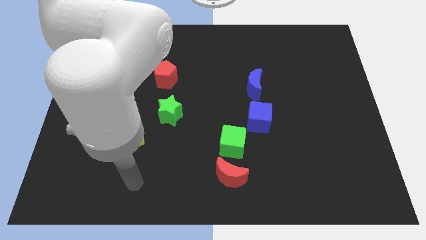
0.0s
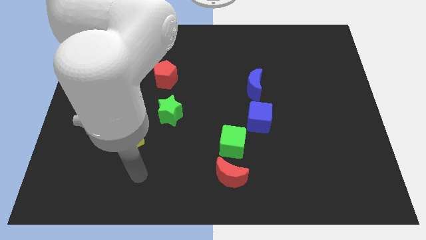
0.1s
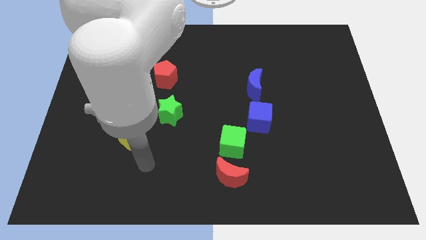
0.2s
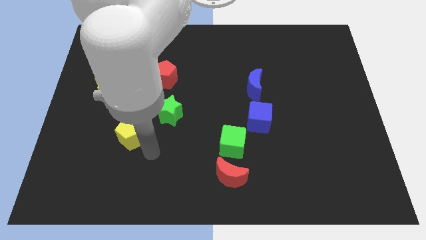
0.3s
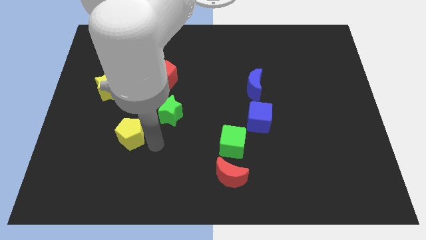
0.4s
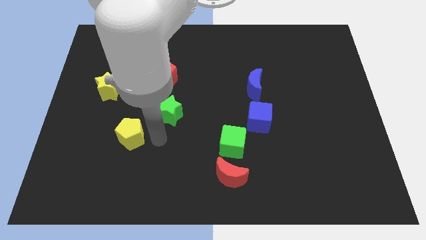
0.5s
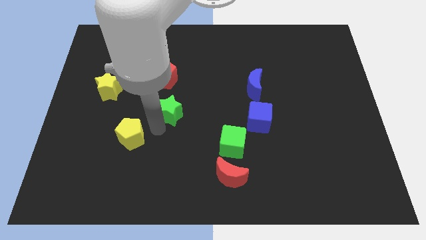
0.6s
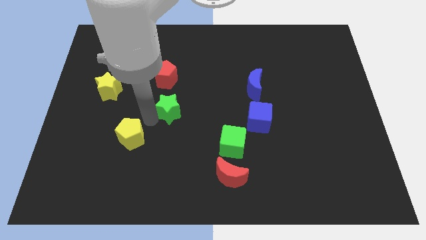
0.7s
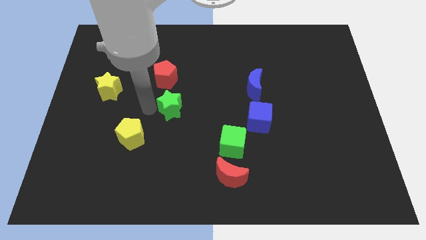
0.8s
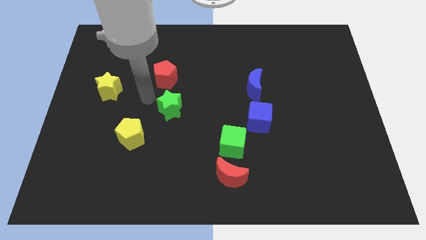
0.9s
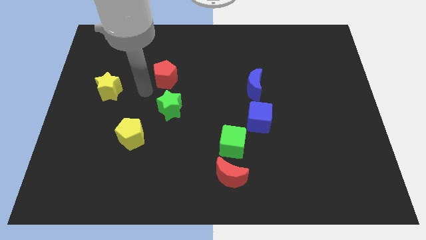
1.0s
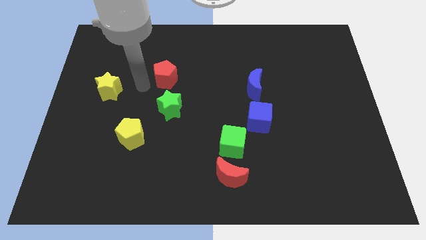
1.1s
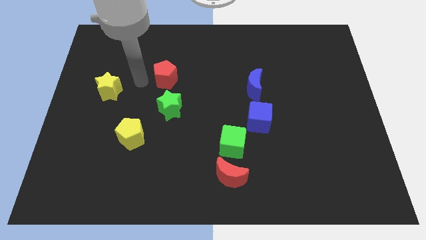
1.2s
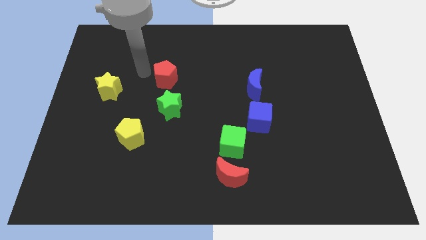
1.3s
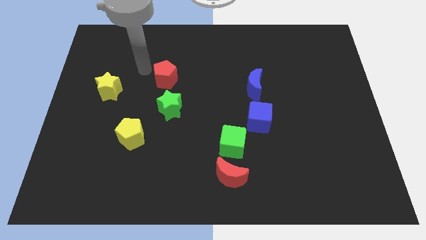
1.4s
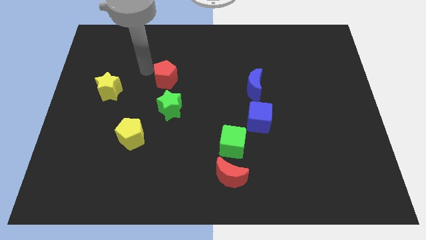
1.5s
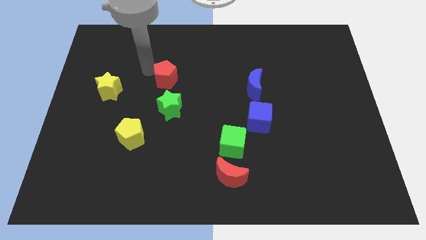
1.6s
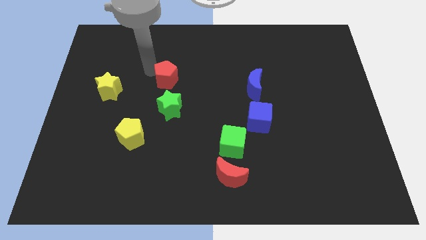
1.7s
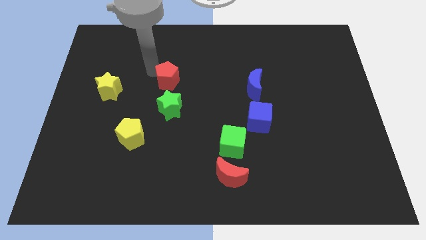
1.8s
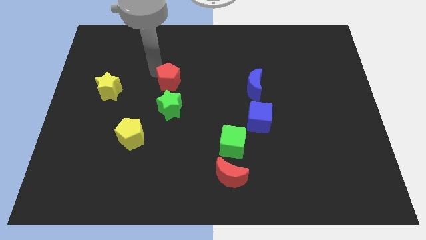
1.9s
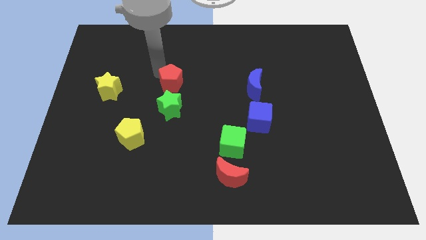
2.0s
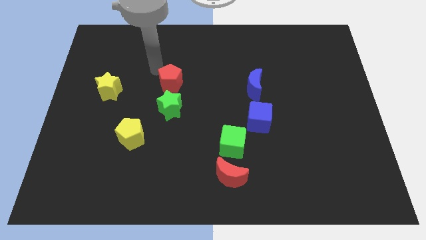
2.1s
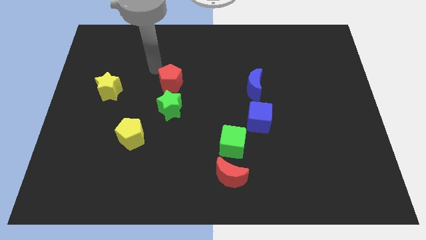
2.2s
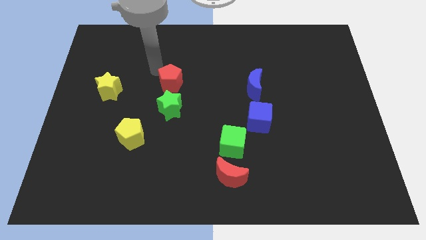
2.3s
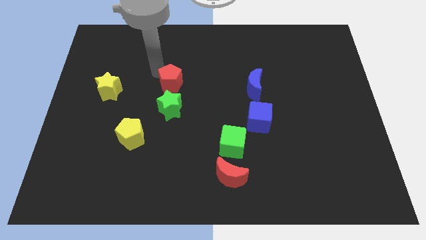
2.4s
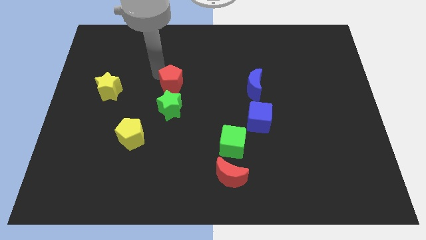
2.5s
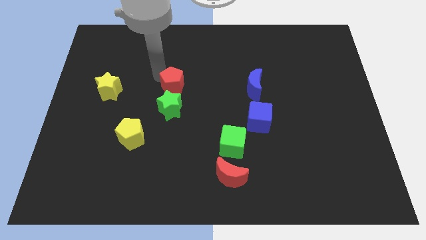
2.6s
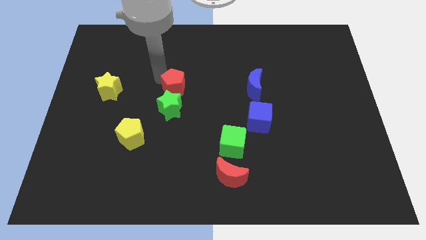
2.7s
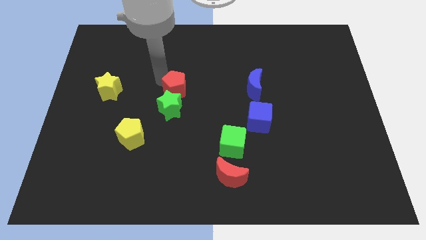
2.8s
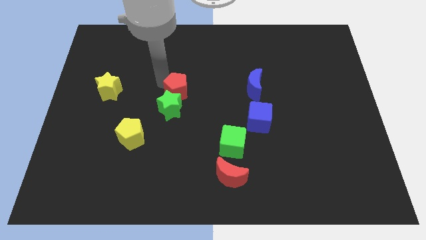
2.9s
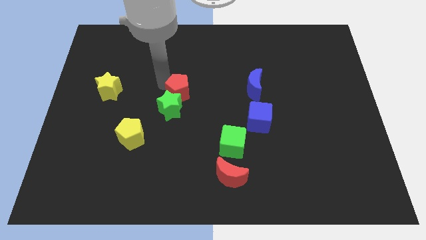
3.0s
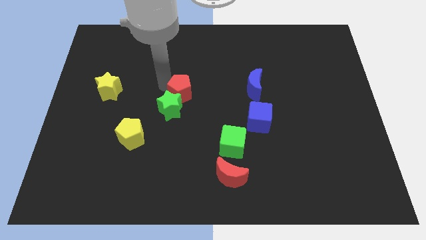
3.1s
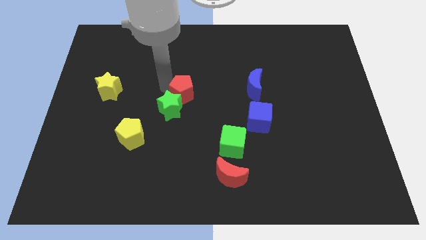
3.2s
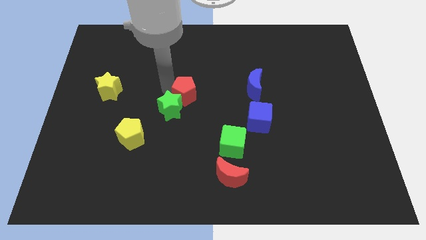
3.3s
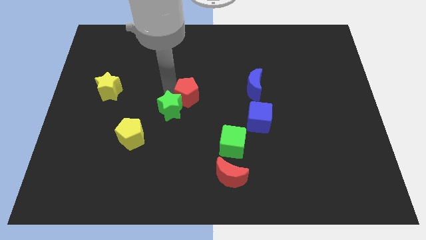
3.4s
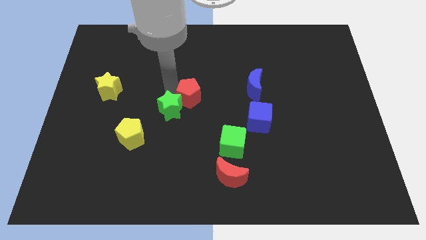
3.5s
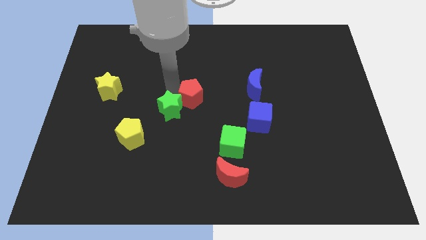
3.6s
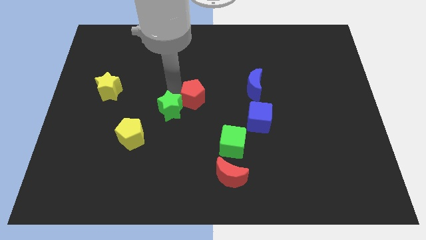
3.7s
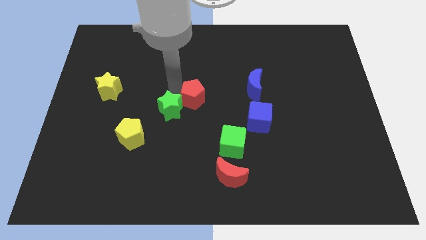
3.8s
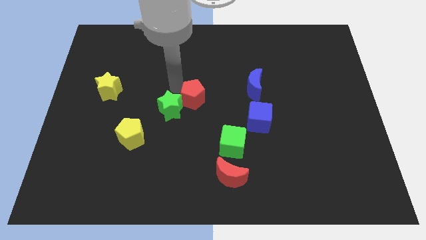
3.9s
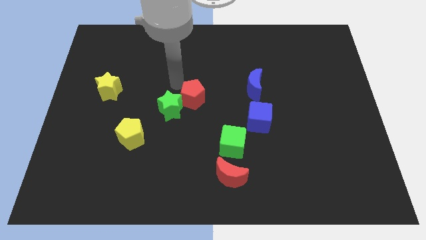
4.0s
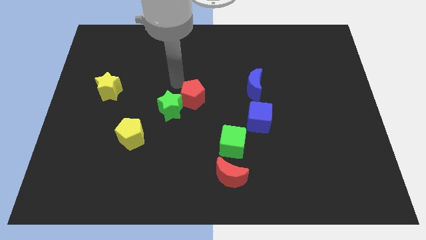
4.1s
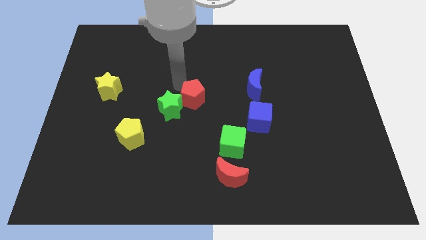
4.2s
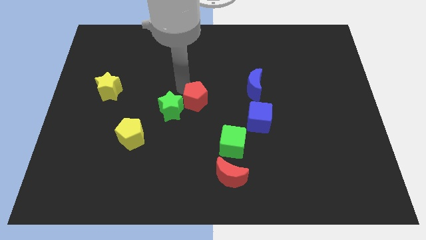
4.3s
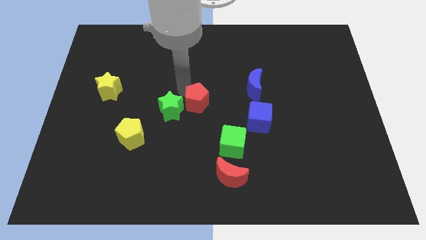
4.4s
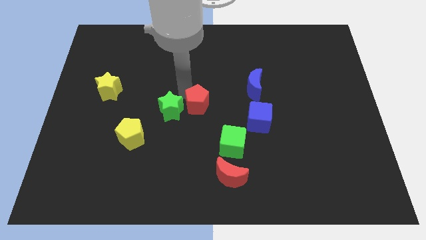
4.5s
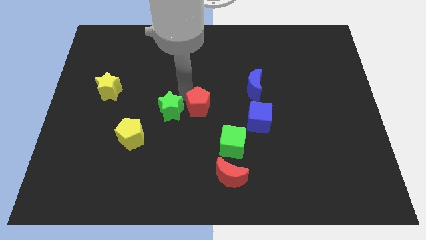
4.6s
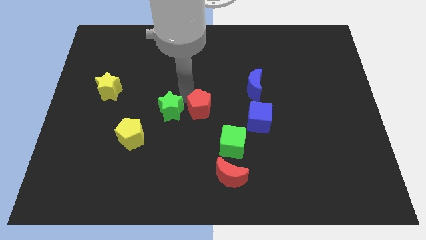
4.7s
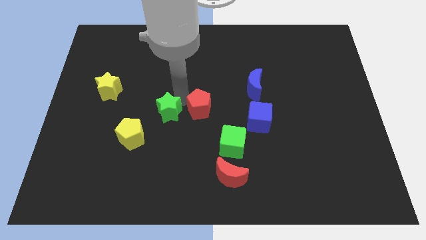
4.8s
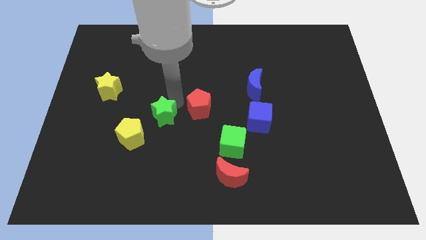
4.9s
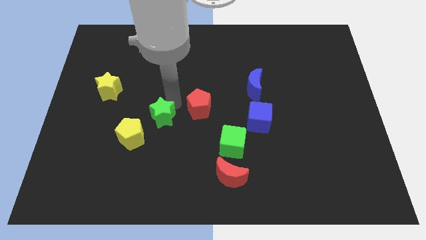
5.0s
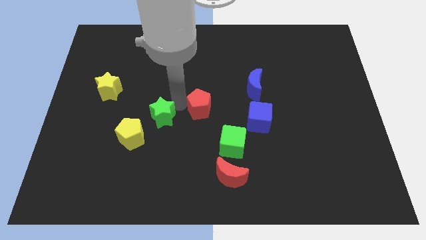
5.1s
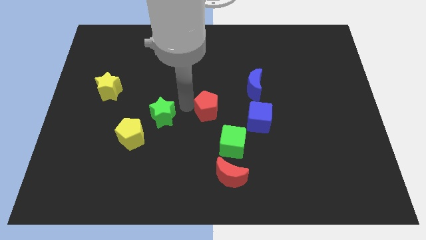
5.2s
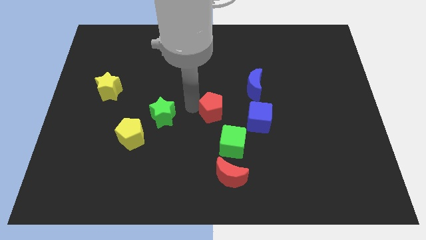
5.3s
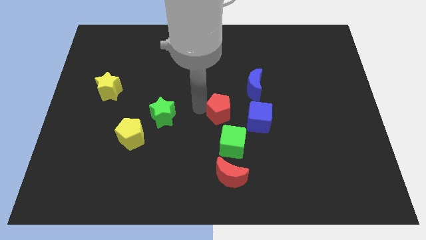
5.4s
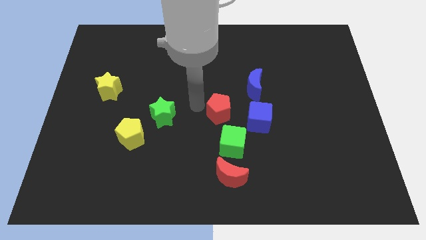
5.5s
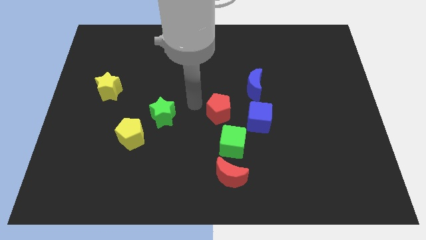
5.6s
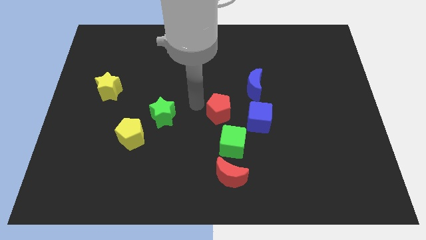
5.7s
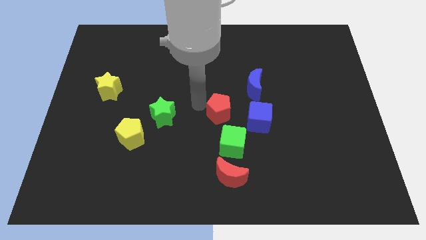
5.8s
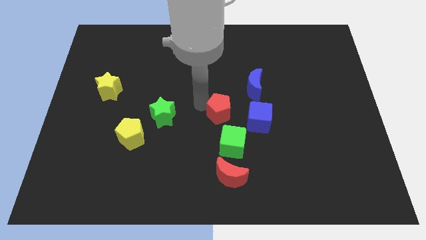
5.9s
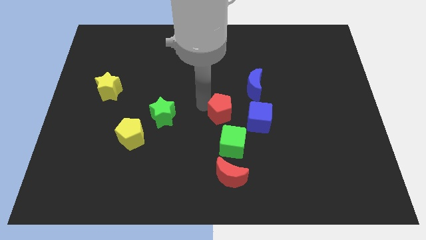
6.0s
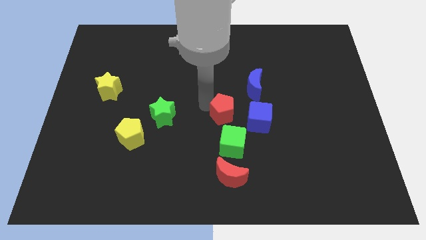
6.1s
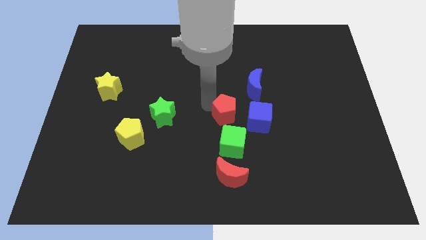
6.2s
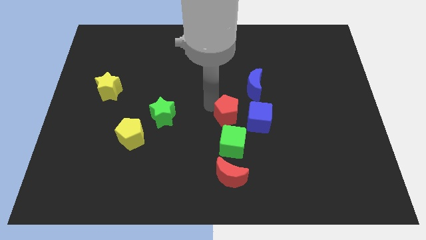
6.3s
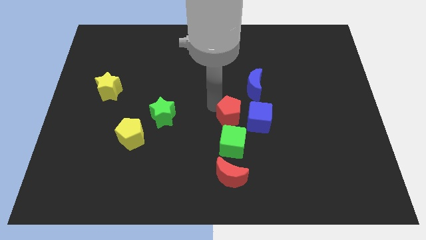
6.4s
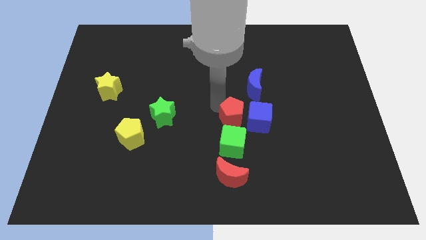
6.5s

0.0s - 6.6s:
move the red pentagon towards the blue cube

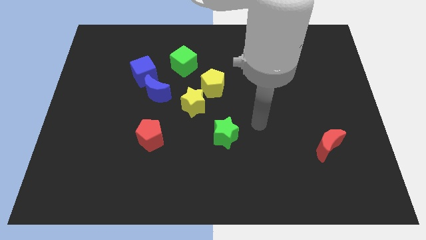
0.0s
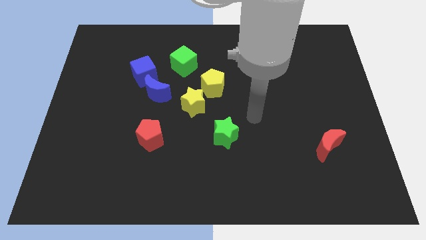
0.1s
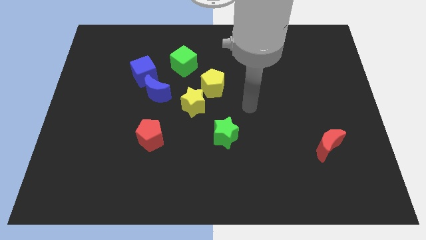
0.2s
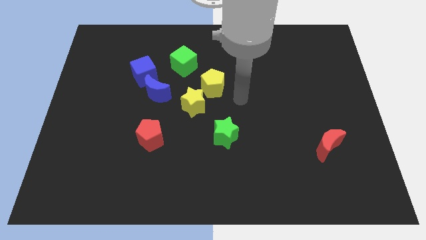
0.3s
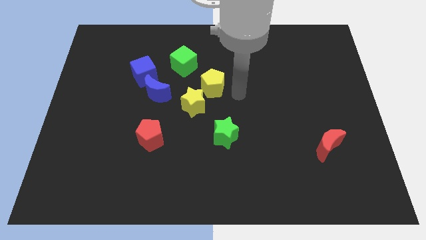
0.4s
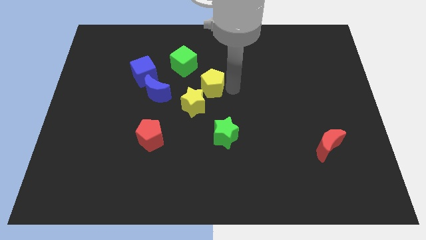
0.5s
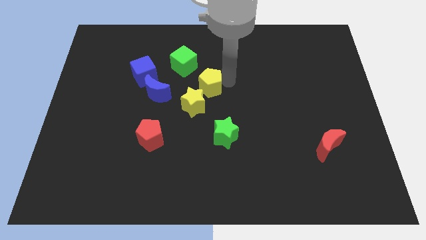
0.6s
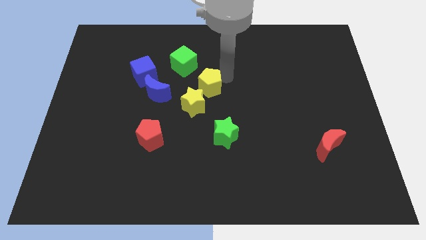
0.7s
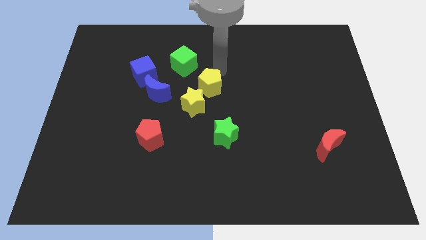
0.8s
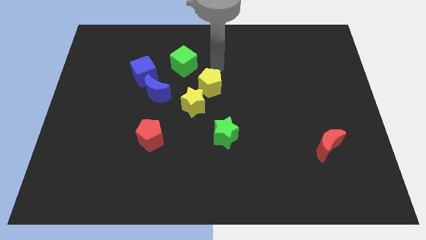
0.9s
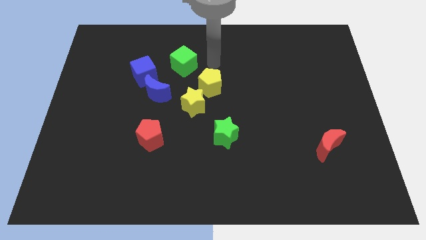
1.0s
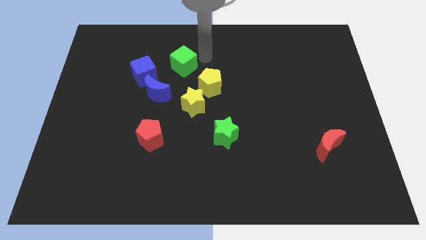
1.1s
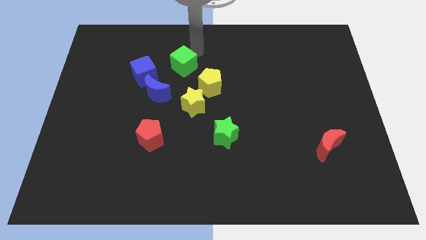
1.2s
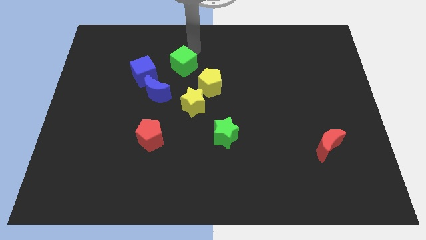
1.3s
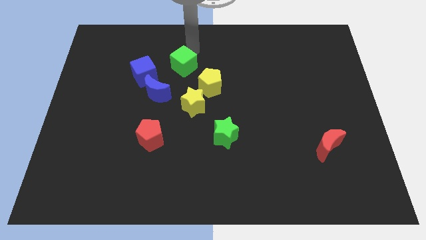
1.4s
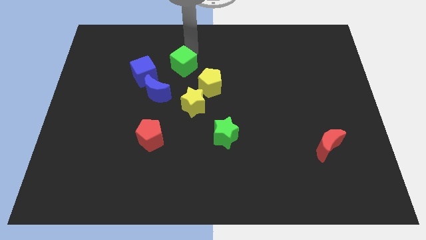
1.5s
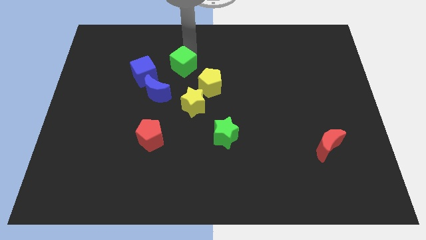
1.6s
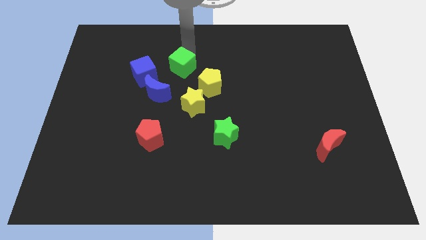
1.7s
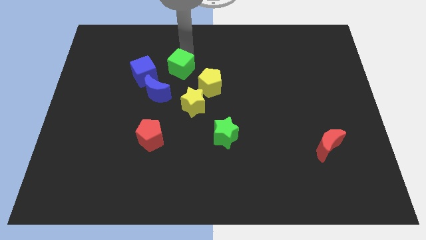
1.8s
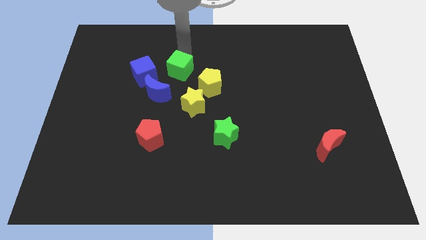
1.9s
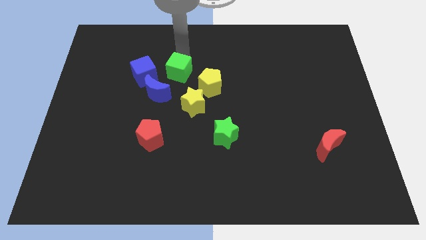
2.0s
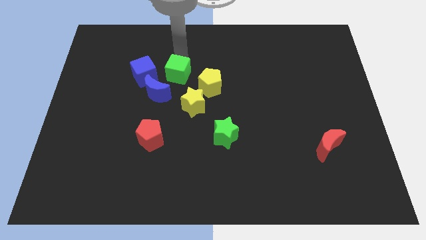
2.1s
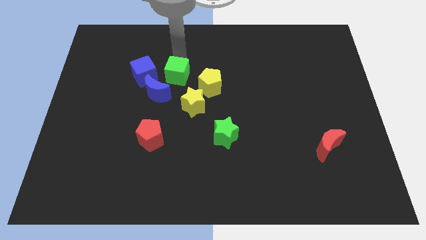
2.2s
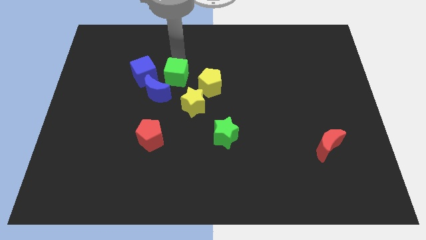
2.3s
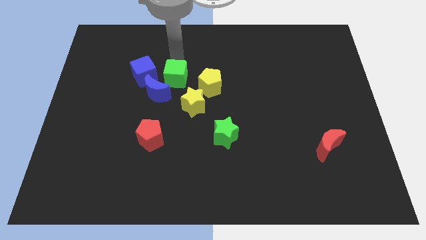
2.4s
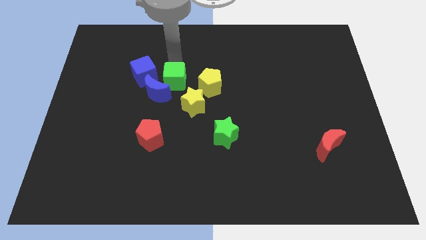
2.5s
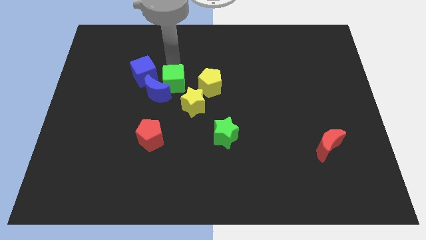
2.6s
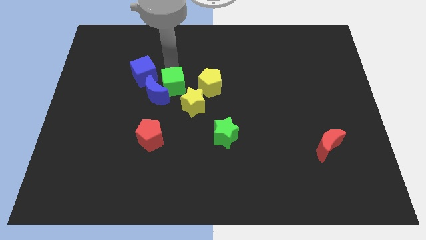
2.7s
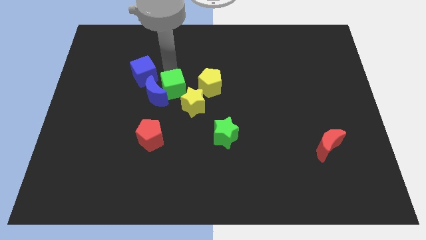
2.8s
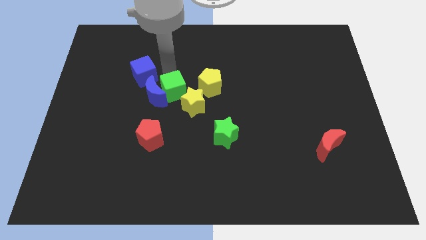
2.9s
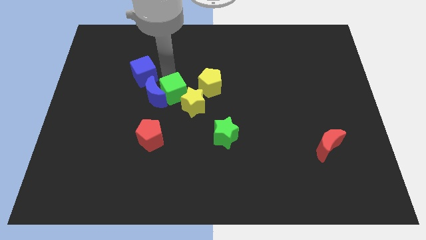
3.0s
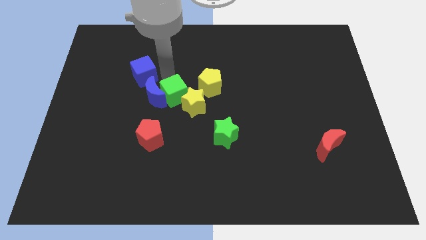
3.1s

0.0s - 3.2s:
put the green cube to the yellow star
